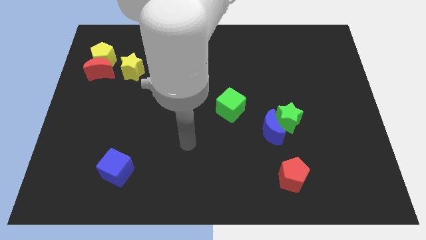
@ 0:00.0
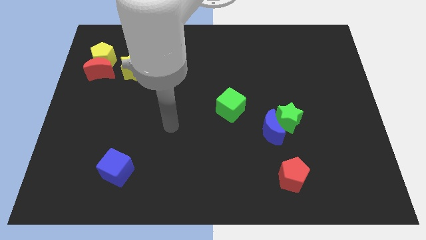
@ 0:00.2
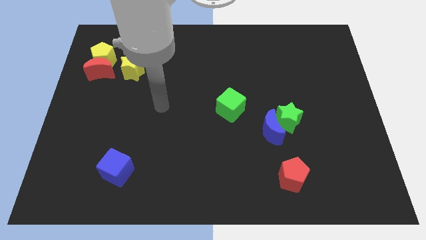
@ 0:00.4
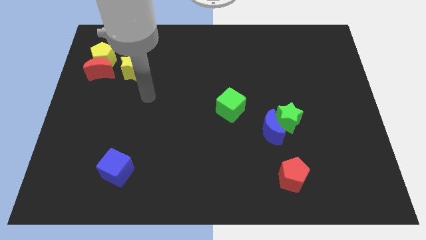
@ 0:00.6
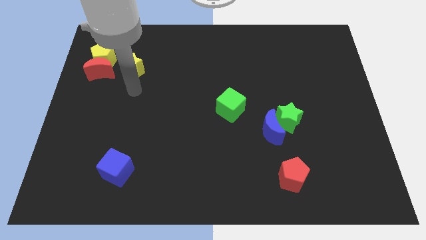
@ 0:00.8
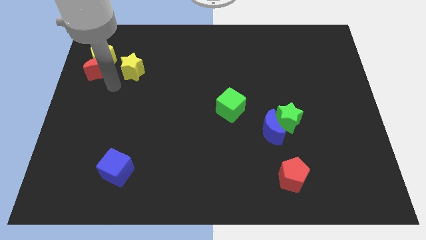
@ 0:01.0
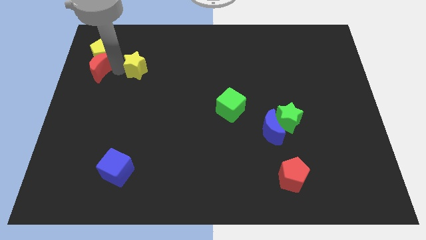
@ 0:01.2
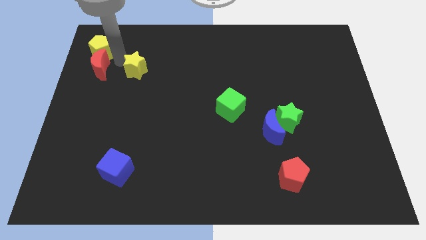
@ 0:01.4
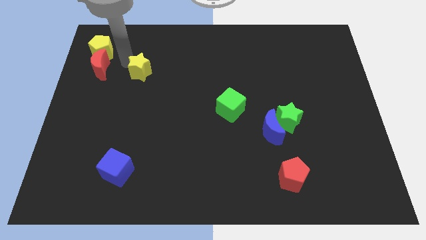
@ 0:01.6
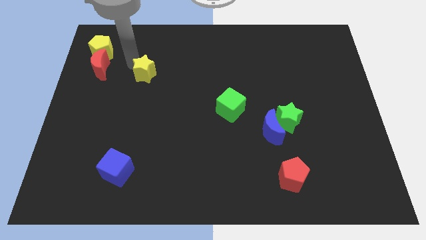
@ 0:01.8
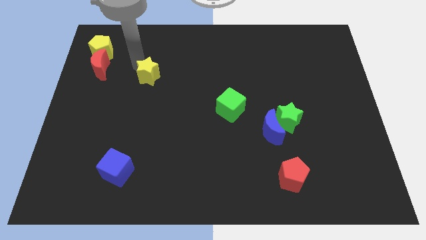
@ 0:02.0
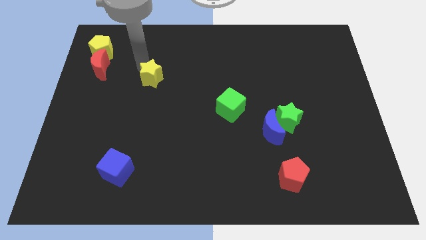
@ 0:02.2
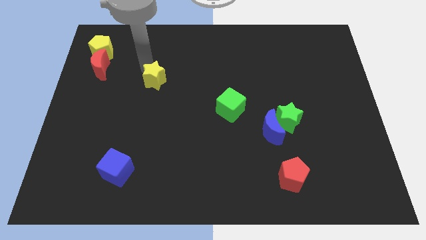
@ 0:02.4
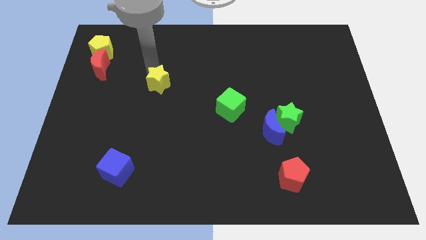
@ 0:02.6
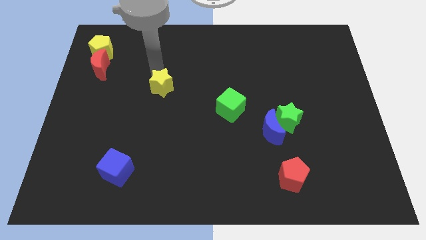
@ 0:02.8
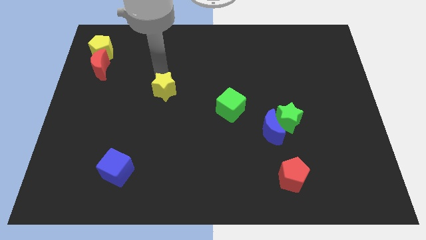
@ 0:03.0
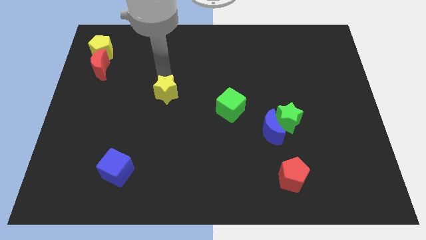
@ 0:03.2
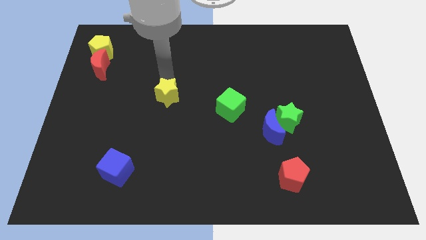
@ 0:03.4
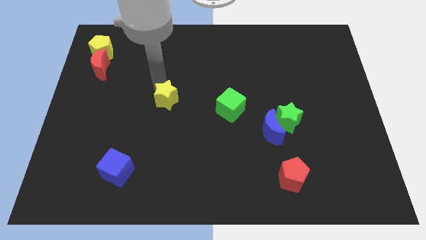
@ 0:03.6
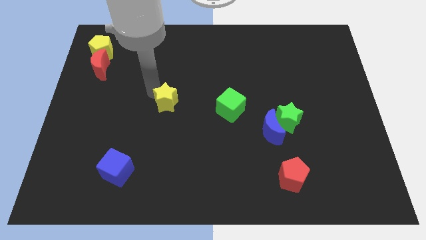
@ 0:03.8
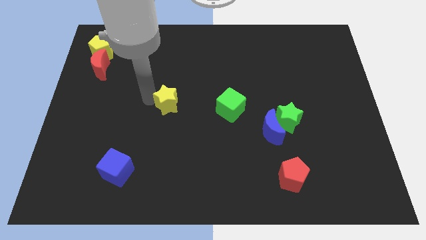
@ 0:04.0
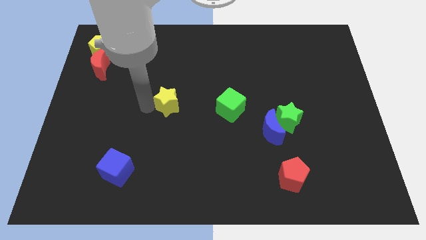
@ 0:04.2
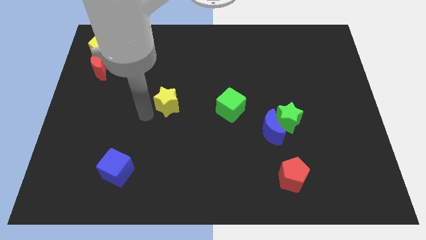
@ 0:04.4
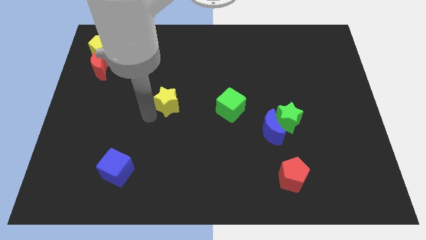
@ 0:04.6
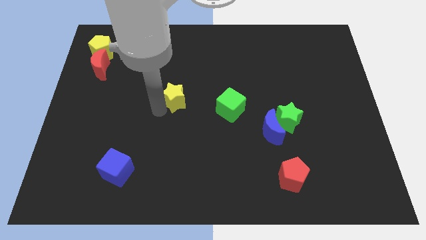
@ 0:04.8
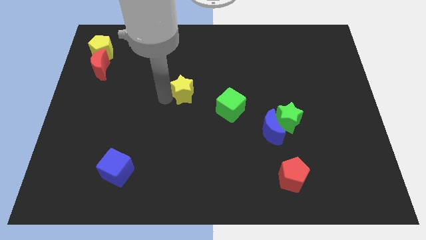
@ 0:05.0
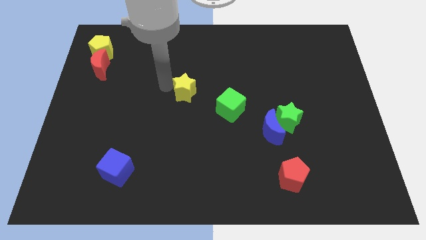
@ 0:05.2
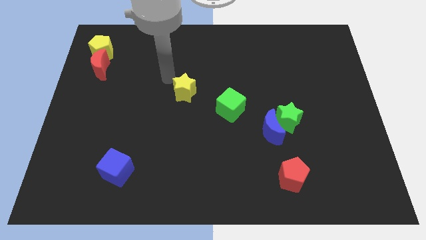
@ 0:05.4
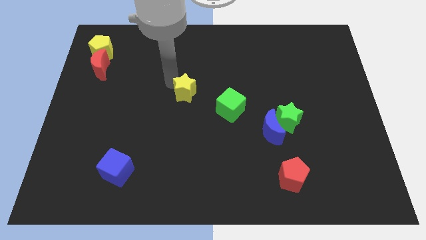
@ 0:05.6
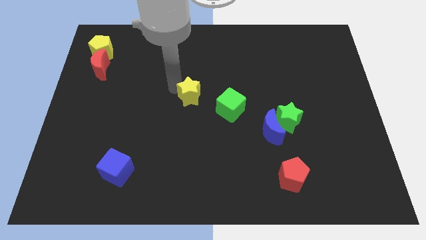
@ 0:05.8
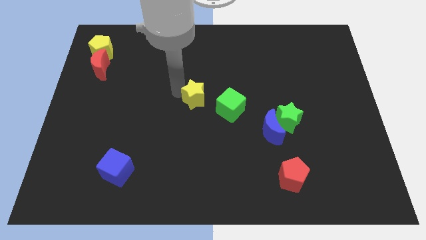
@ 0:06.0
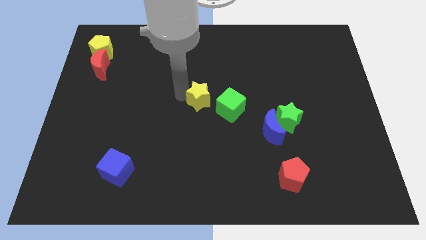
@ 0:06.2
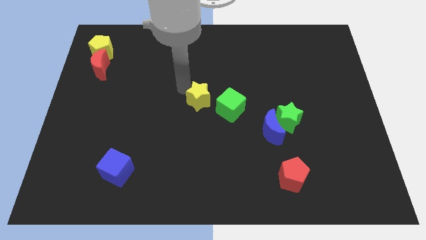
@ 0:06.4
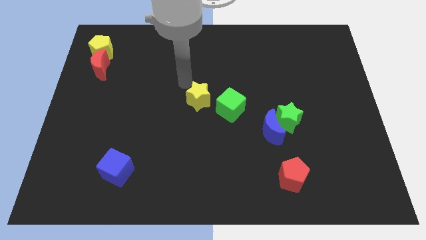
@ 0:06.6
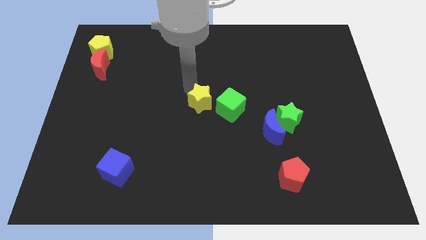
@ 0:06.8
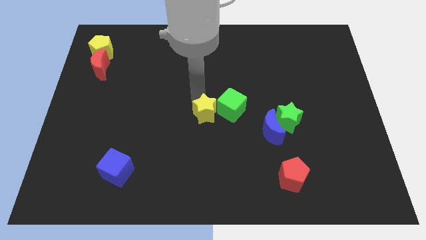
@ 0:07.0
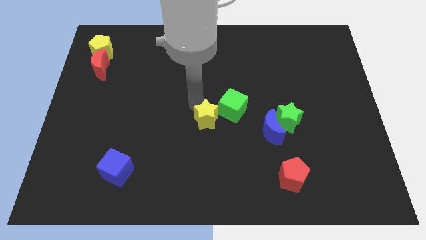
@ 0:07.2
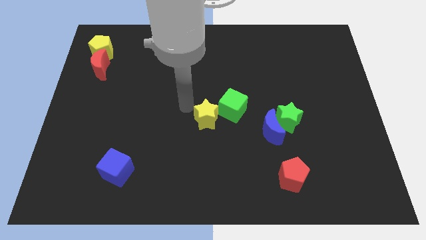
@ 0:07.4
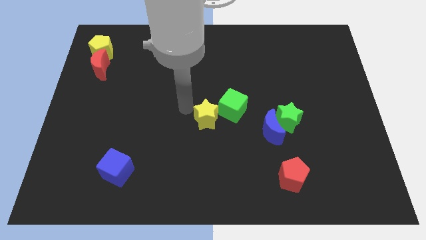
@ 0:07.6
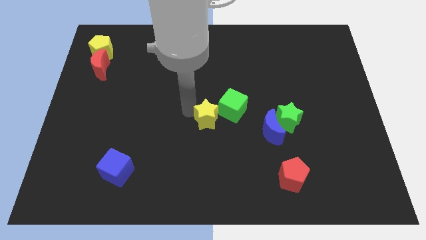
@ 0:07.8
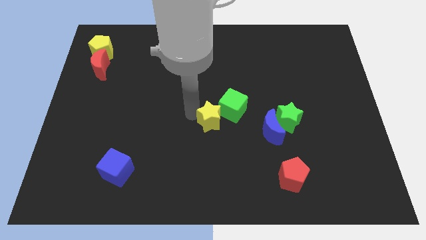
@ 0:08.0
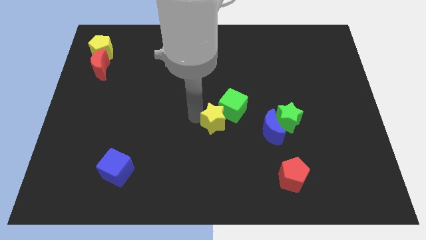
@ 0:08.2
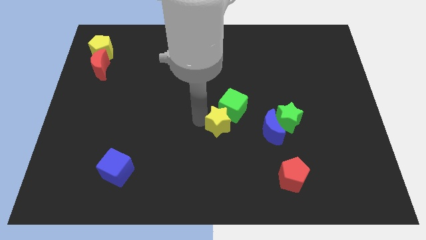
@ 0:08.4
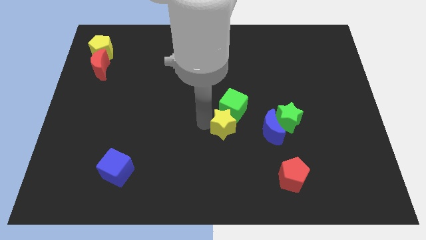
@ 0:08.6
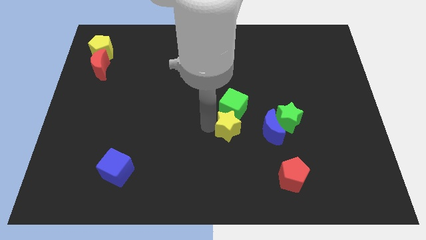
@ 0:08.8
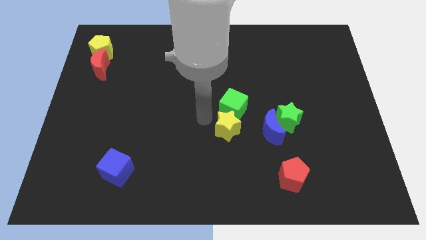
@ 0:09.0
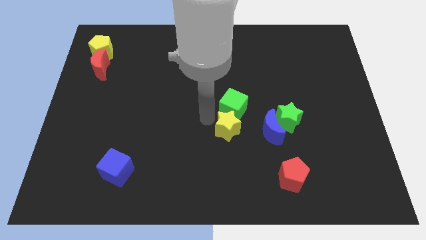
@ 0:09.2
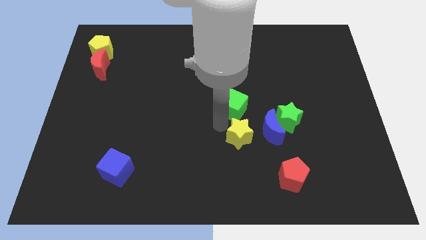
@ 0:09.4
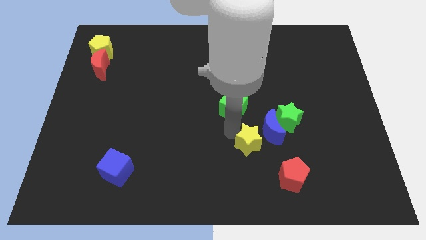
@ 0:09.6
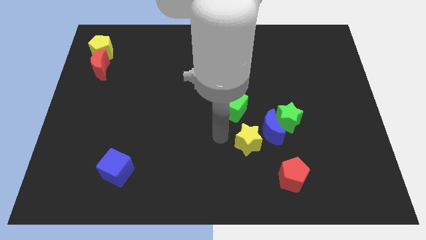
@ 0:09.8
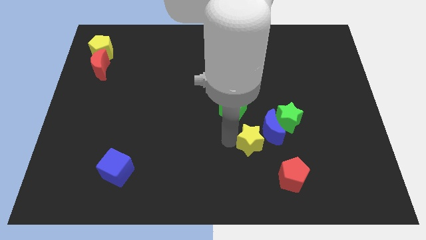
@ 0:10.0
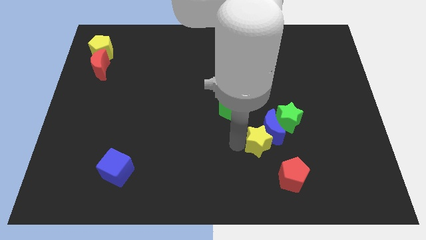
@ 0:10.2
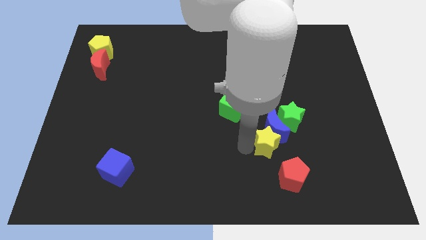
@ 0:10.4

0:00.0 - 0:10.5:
put the yellow star to the bottom right side of the blue moon

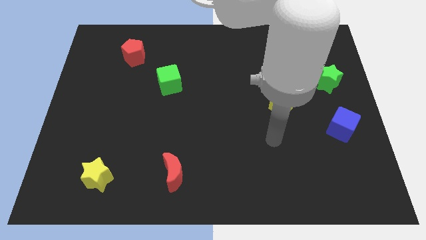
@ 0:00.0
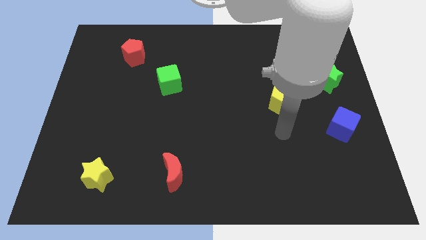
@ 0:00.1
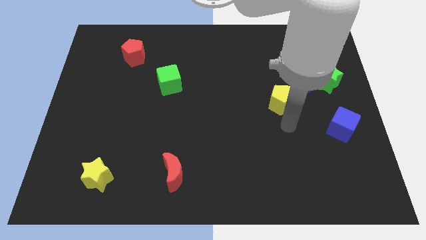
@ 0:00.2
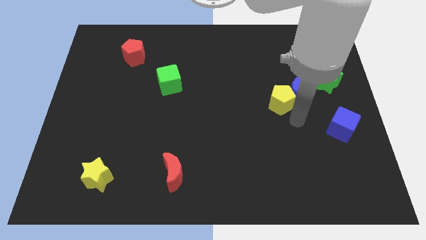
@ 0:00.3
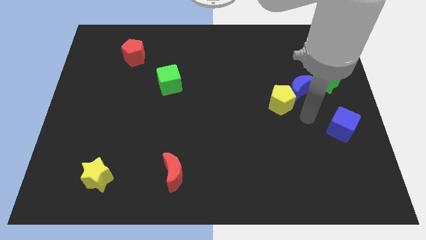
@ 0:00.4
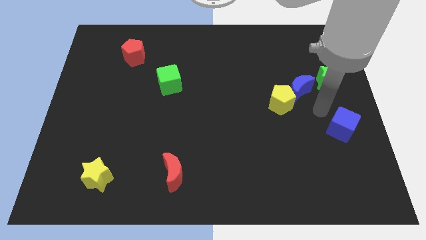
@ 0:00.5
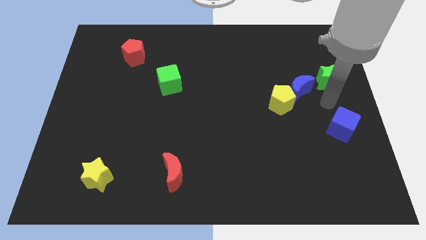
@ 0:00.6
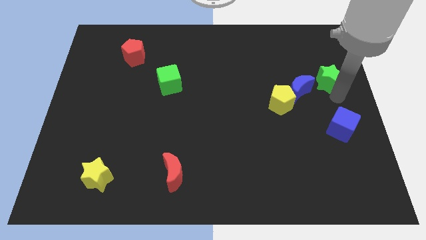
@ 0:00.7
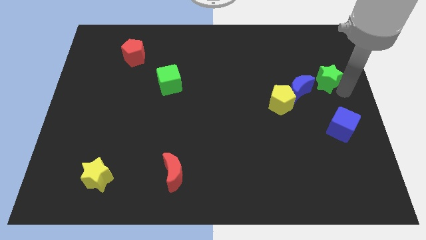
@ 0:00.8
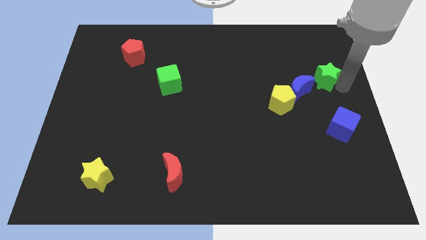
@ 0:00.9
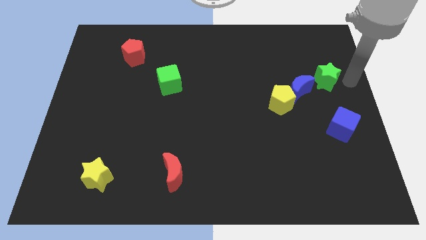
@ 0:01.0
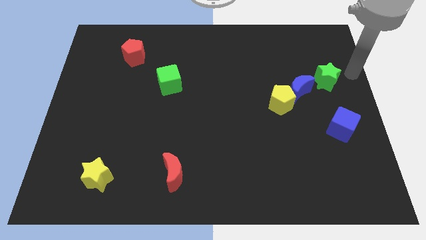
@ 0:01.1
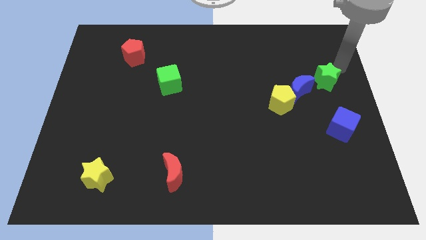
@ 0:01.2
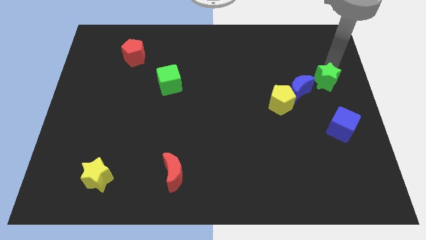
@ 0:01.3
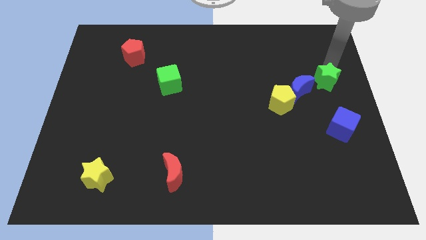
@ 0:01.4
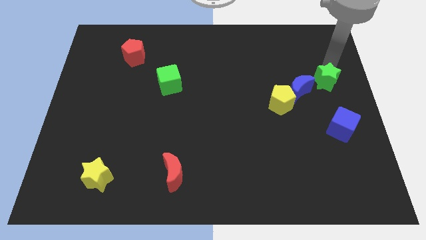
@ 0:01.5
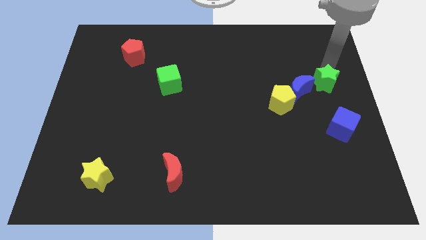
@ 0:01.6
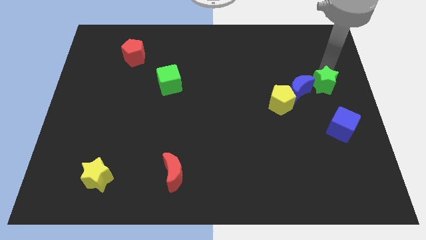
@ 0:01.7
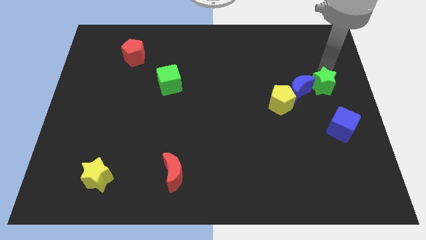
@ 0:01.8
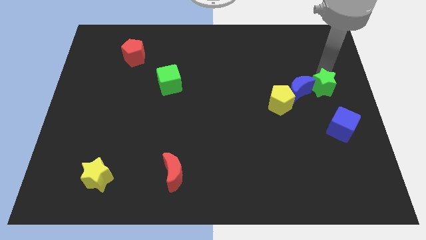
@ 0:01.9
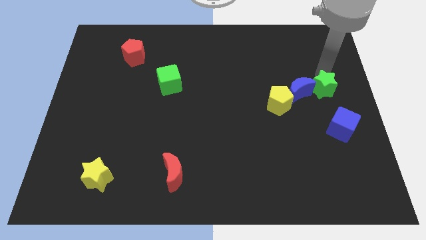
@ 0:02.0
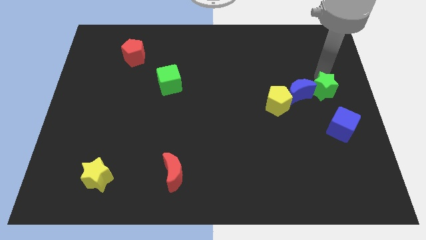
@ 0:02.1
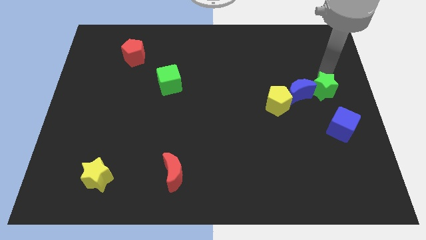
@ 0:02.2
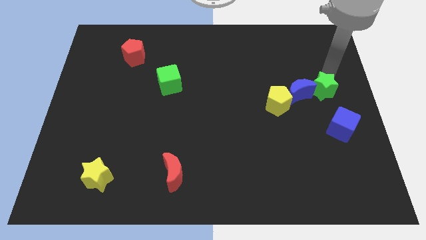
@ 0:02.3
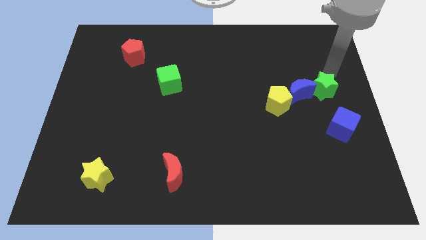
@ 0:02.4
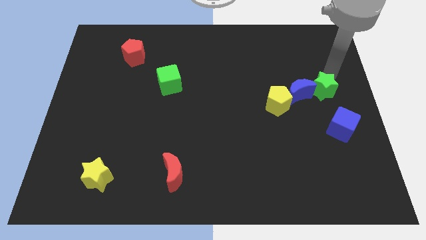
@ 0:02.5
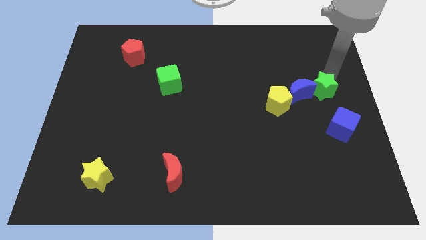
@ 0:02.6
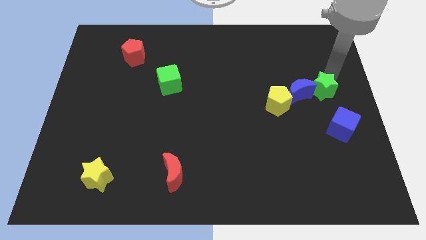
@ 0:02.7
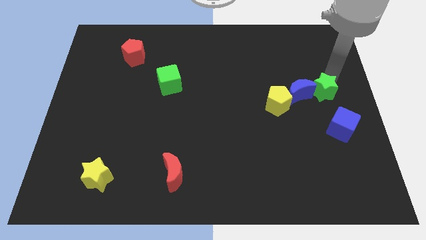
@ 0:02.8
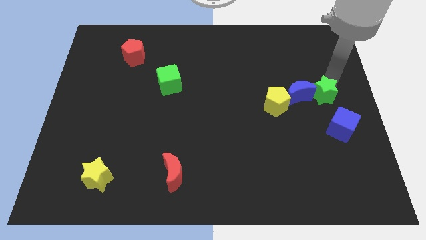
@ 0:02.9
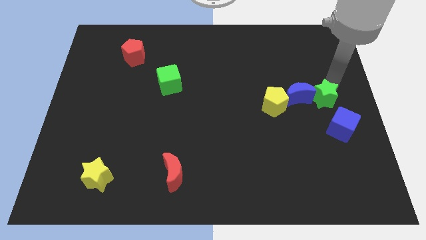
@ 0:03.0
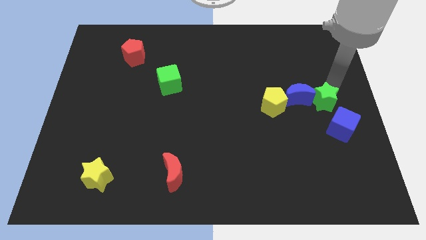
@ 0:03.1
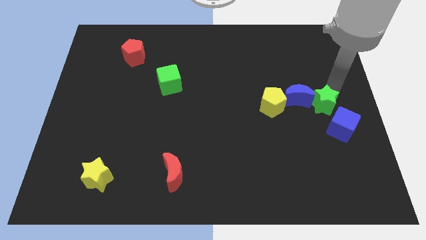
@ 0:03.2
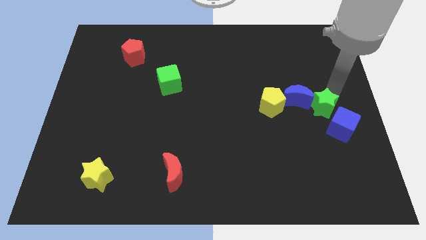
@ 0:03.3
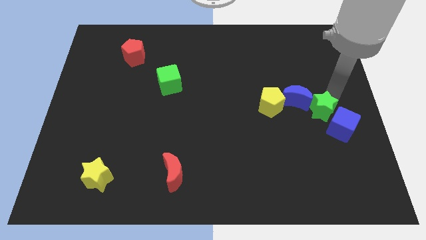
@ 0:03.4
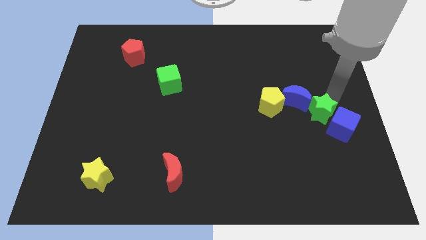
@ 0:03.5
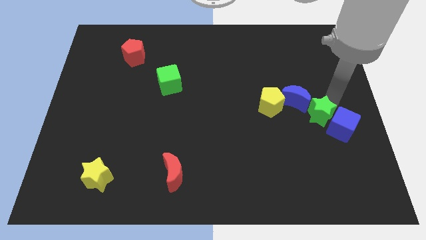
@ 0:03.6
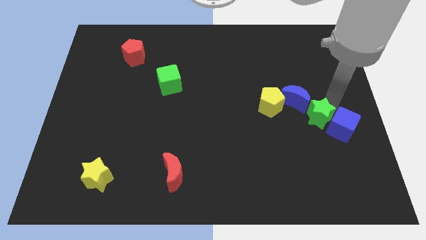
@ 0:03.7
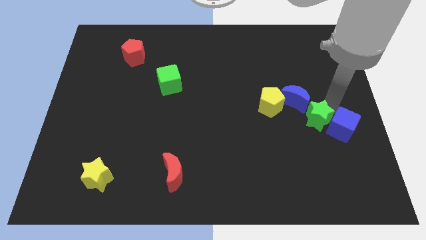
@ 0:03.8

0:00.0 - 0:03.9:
push the green star to the bottom right side of the yellow pentagon
